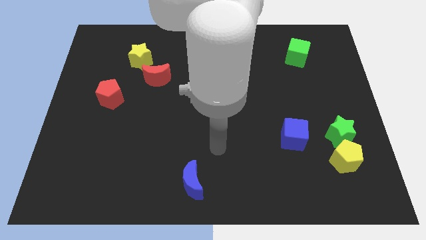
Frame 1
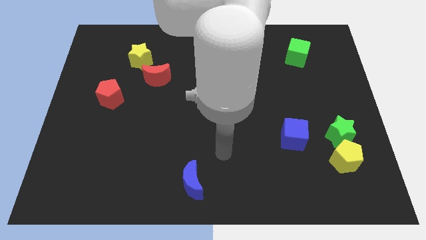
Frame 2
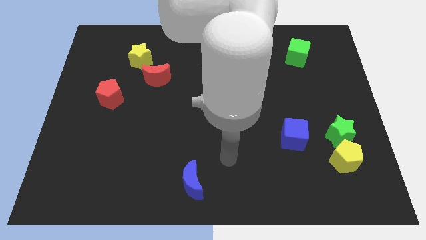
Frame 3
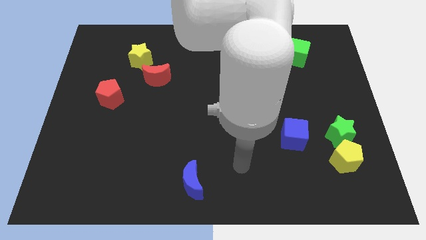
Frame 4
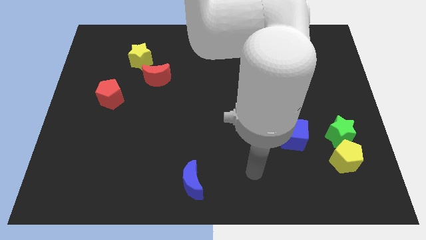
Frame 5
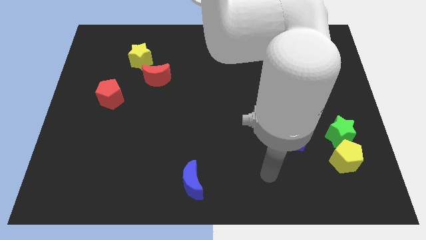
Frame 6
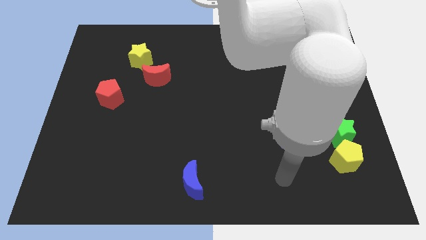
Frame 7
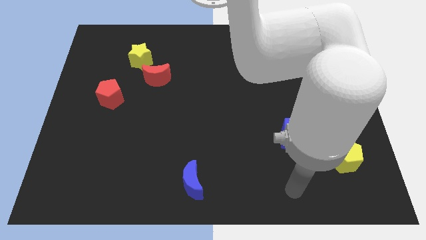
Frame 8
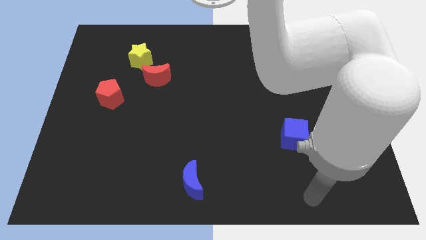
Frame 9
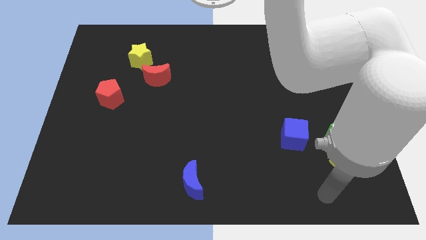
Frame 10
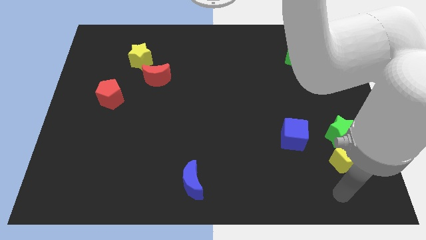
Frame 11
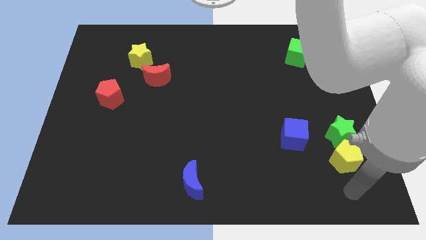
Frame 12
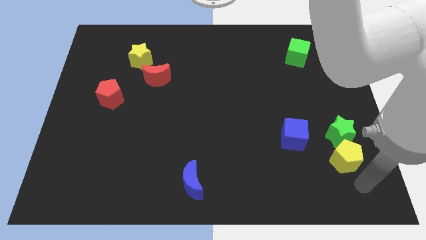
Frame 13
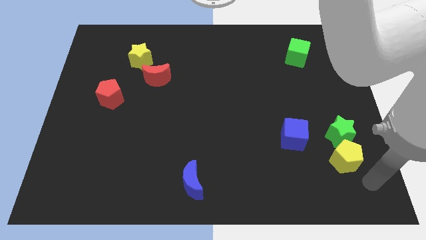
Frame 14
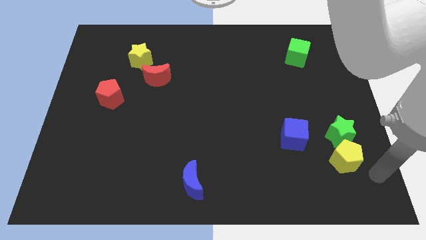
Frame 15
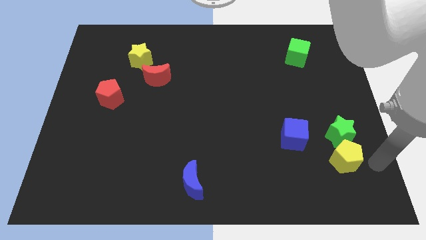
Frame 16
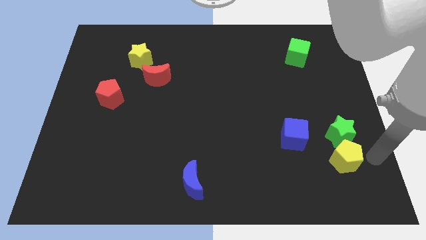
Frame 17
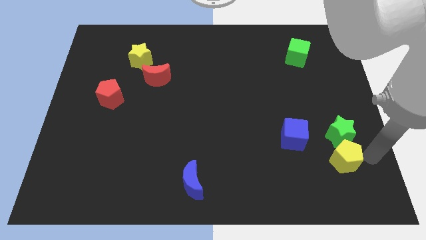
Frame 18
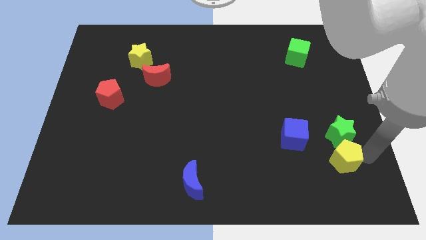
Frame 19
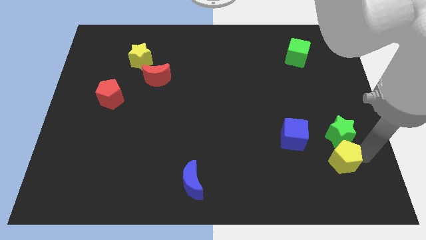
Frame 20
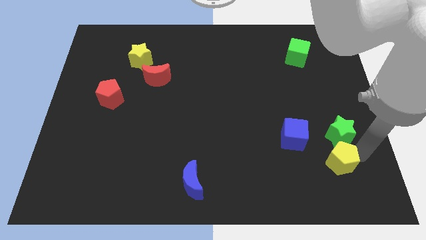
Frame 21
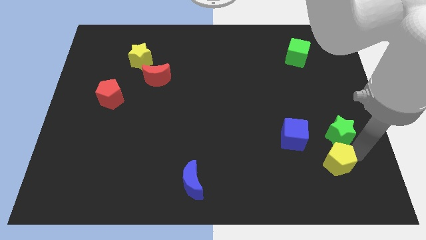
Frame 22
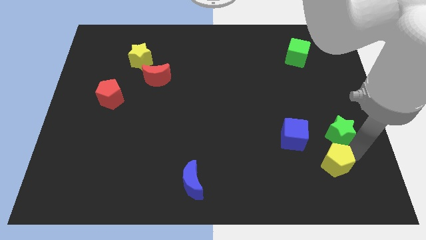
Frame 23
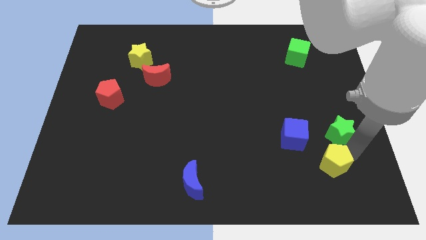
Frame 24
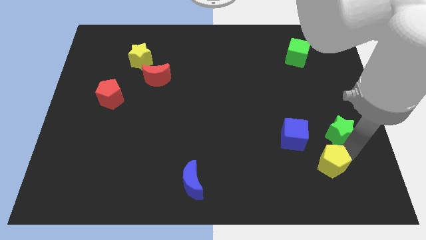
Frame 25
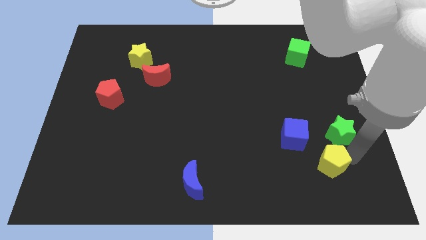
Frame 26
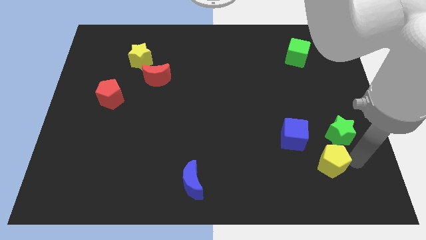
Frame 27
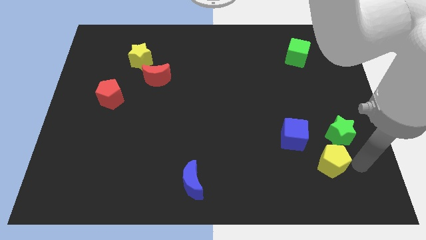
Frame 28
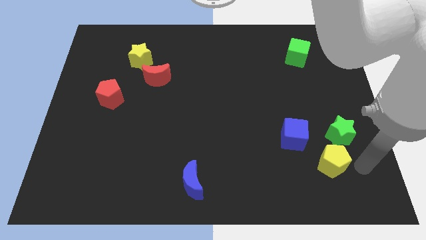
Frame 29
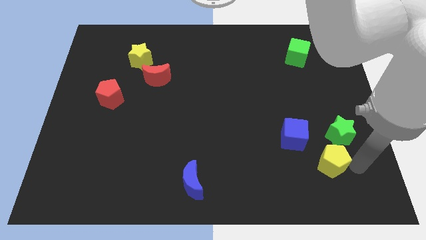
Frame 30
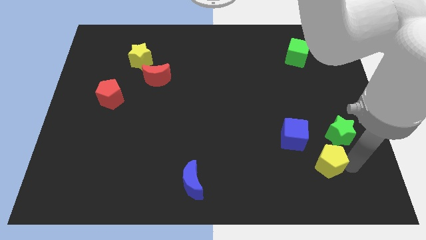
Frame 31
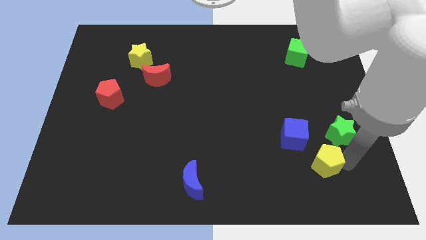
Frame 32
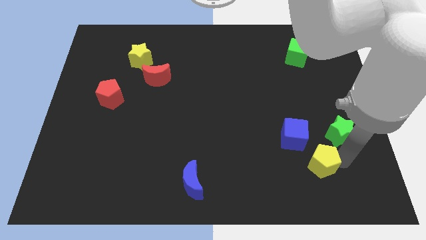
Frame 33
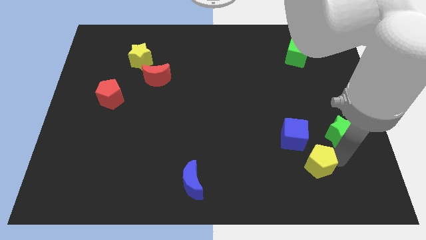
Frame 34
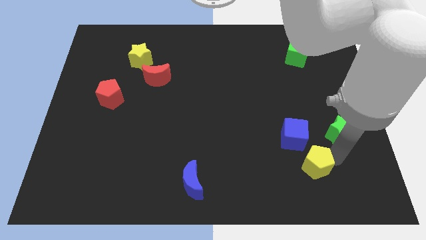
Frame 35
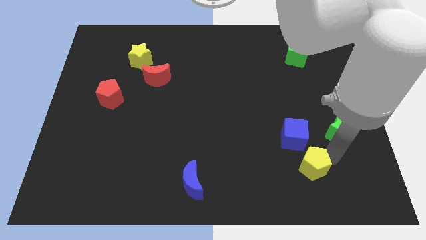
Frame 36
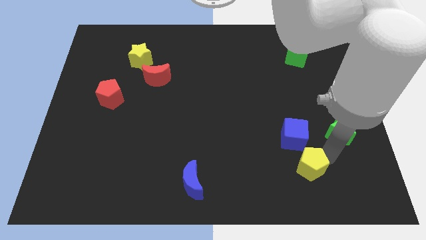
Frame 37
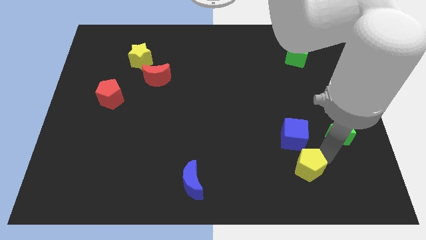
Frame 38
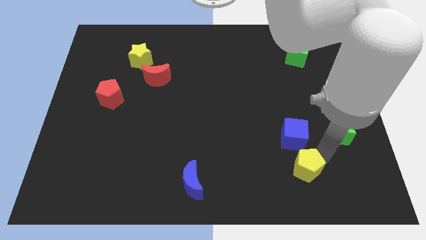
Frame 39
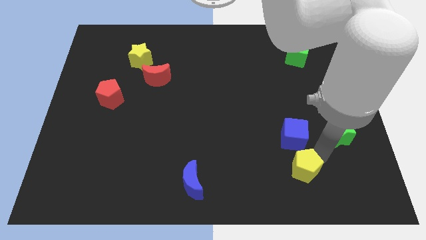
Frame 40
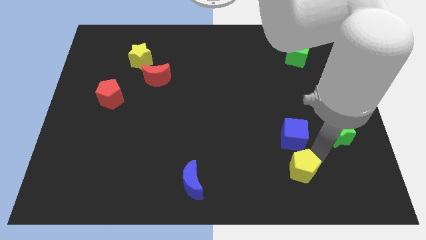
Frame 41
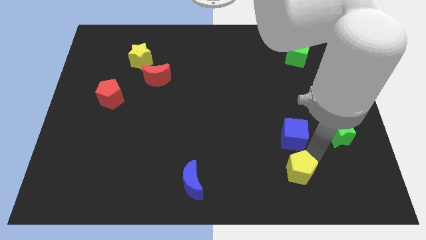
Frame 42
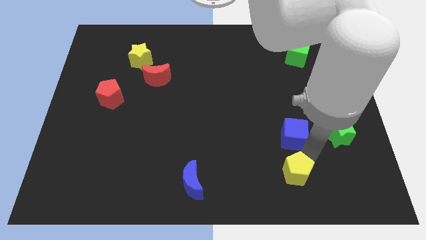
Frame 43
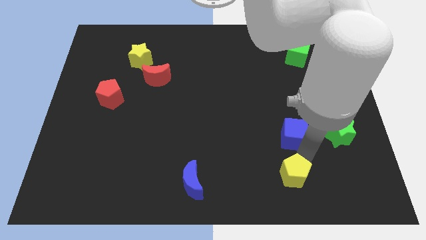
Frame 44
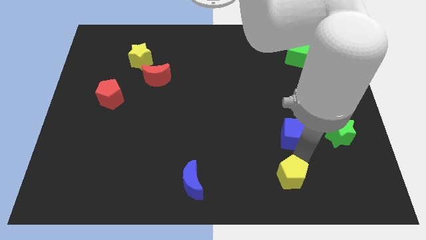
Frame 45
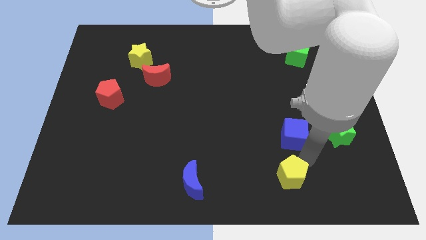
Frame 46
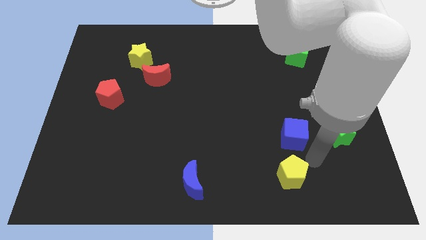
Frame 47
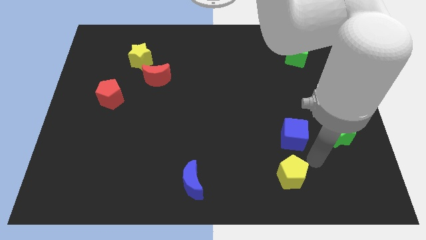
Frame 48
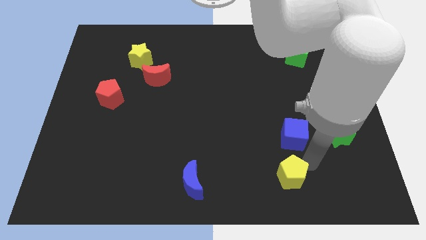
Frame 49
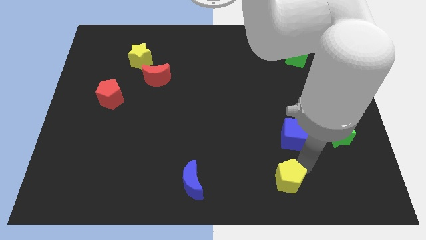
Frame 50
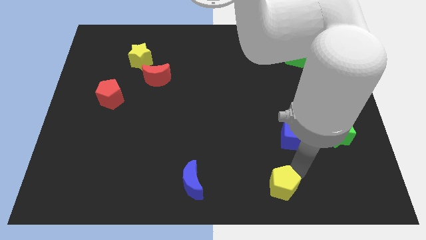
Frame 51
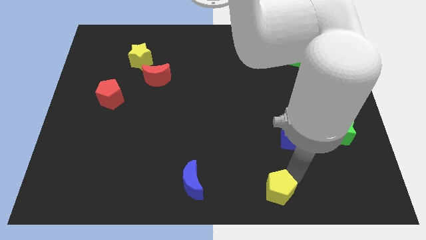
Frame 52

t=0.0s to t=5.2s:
push the yellow pentagon to the bottom

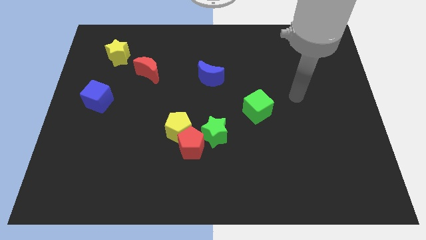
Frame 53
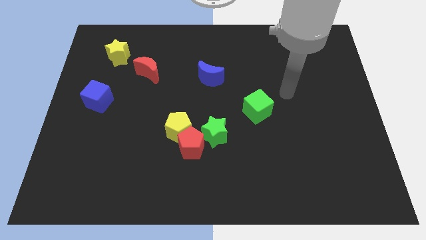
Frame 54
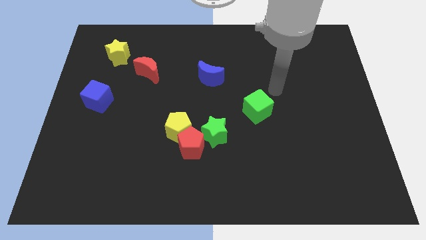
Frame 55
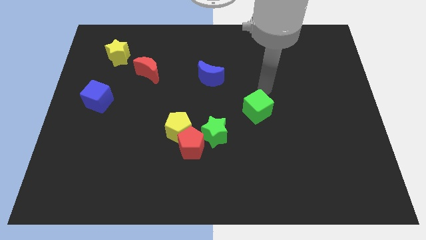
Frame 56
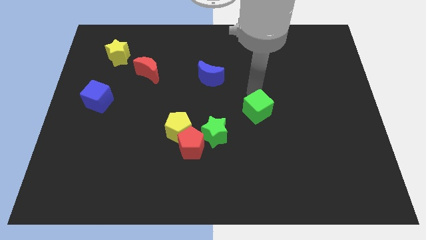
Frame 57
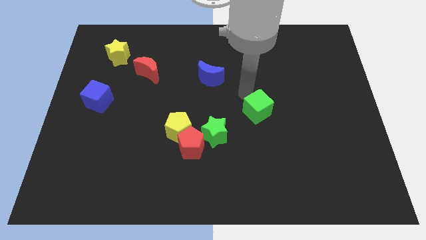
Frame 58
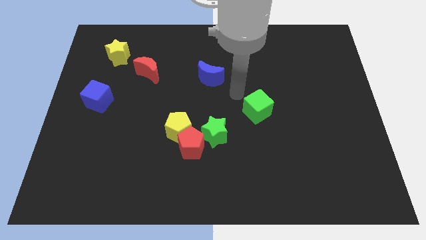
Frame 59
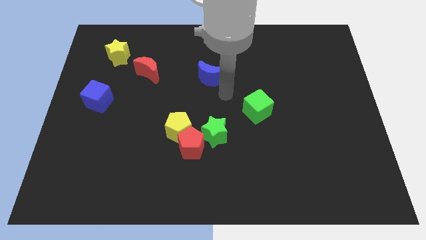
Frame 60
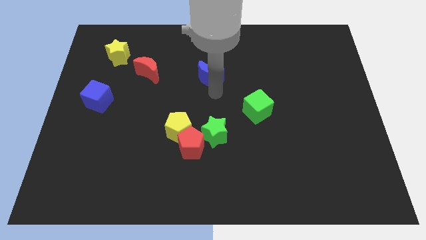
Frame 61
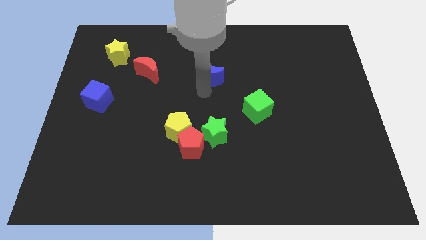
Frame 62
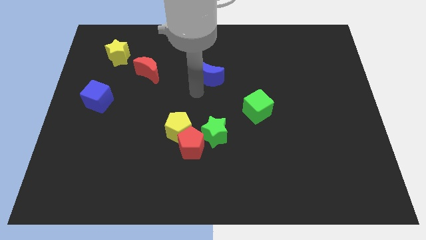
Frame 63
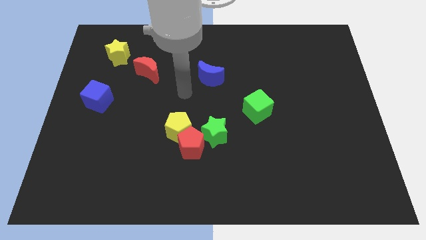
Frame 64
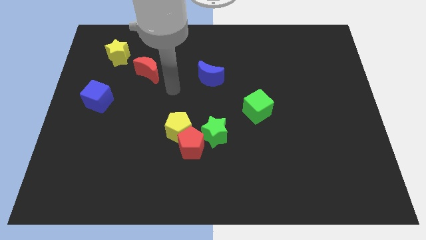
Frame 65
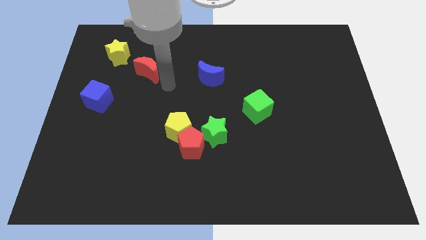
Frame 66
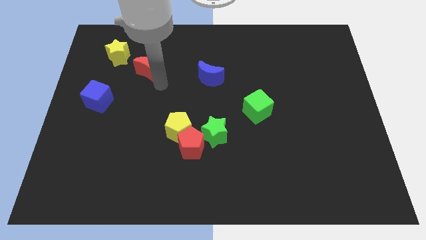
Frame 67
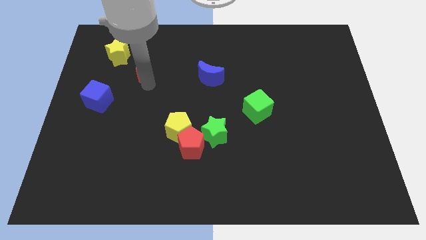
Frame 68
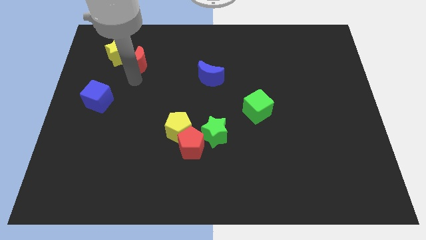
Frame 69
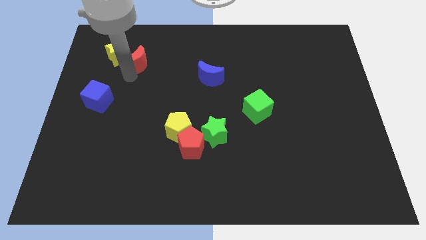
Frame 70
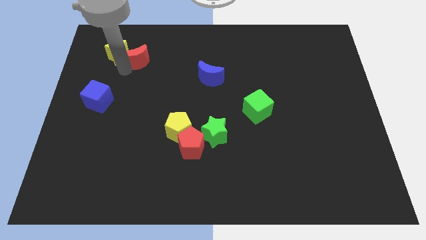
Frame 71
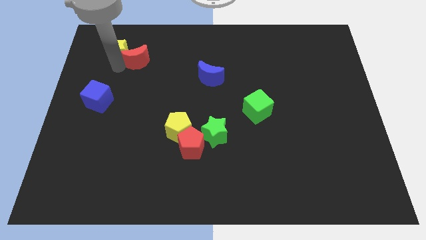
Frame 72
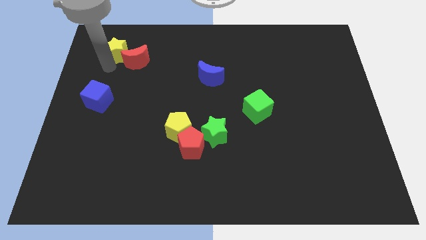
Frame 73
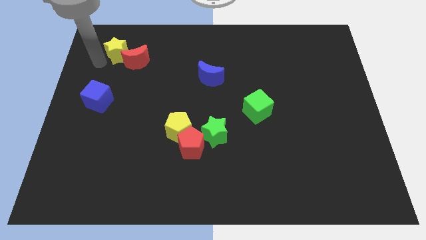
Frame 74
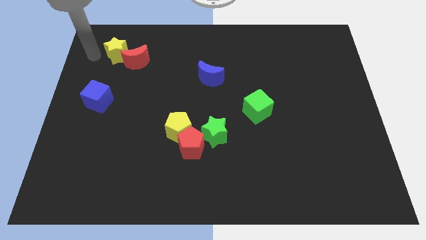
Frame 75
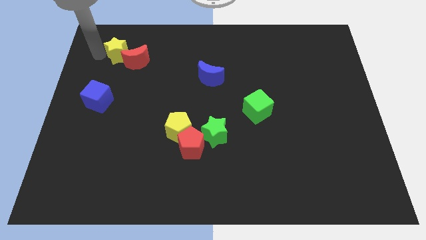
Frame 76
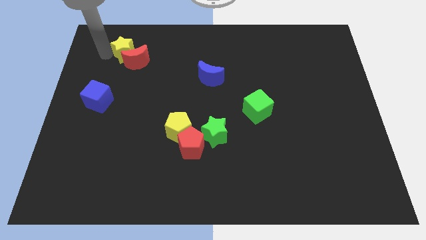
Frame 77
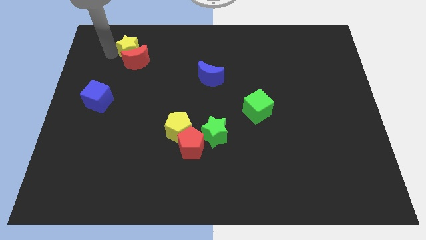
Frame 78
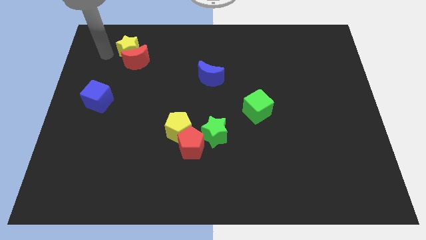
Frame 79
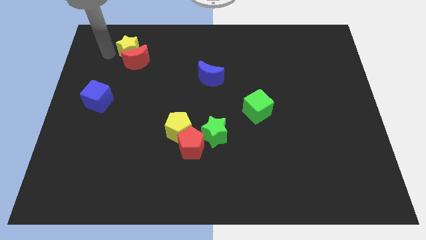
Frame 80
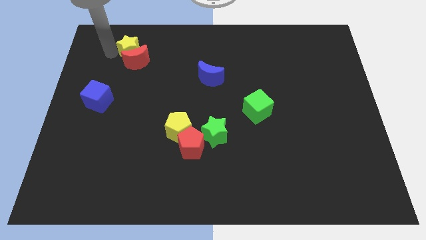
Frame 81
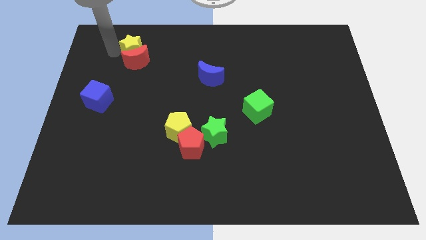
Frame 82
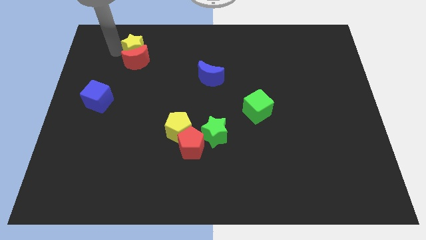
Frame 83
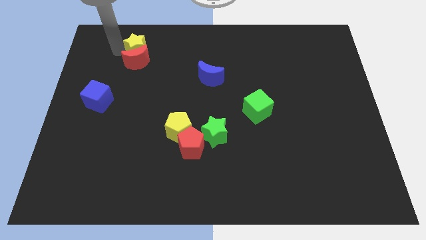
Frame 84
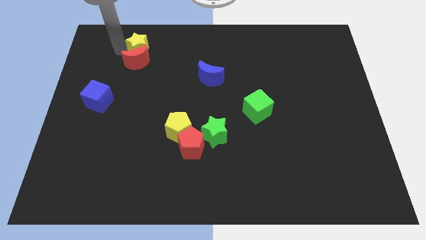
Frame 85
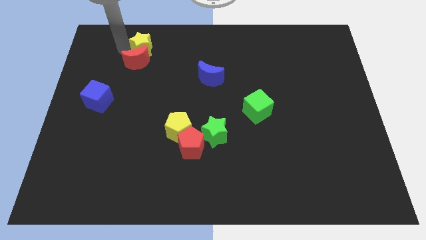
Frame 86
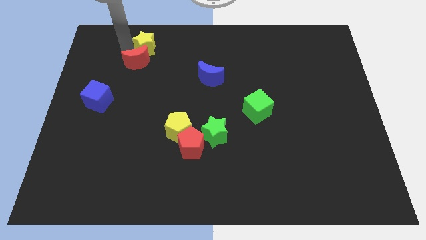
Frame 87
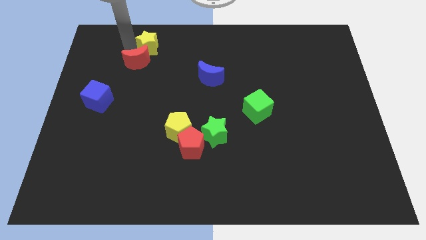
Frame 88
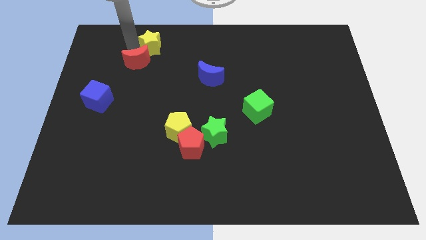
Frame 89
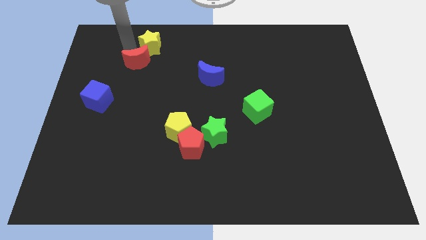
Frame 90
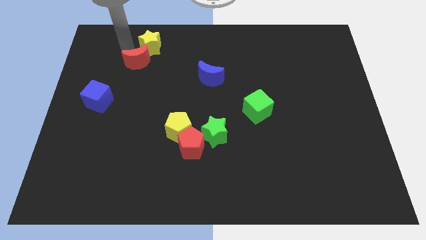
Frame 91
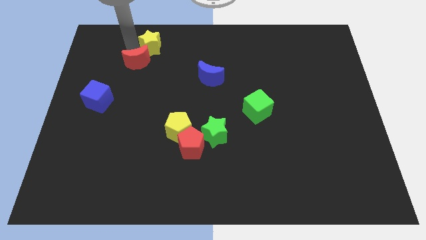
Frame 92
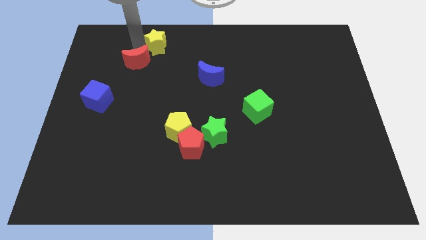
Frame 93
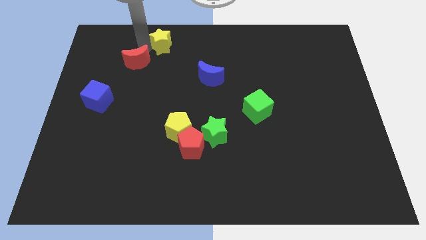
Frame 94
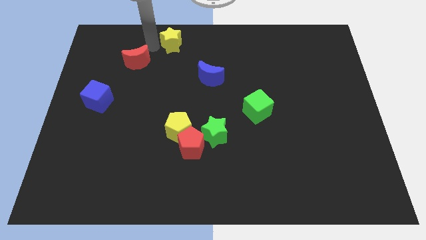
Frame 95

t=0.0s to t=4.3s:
slide the yellow star to the towards your base
